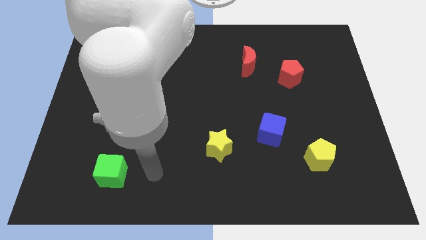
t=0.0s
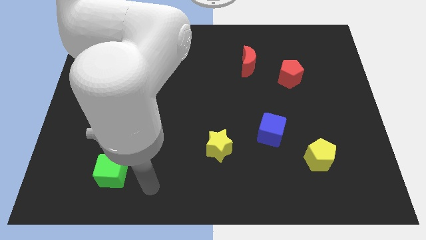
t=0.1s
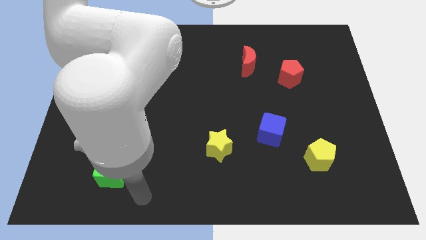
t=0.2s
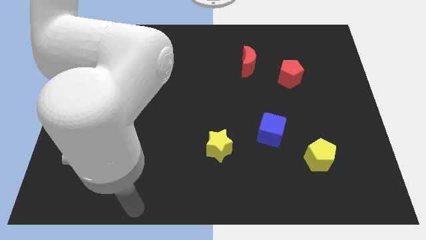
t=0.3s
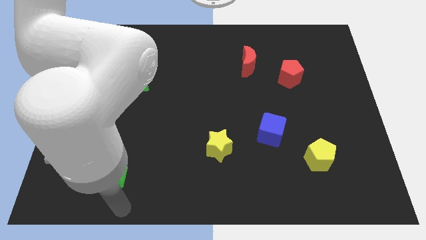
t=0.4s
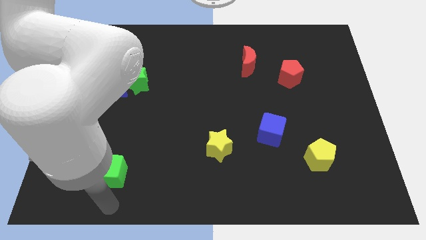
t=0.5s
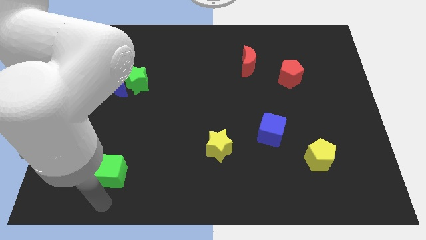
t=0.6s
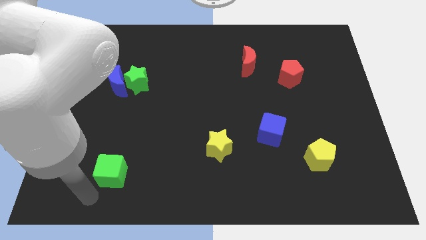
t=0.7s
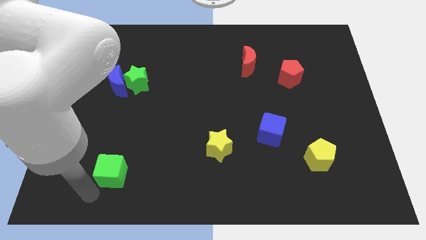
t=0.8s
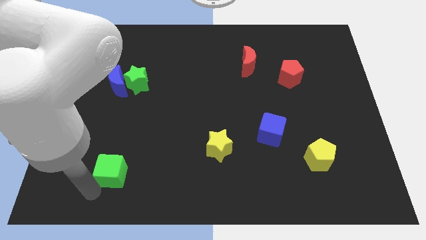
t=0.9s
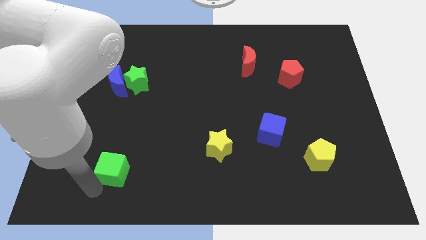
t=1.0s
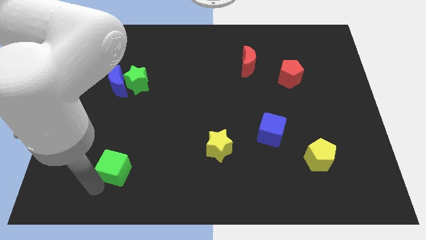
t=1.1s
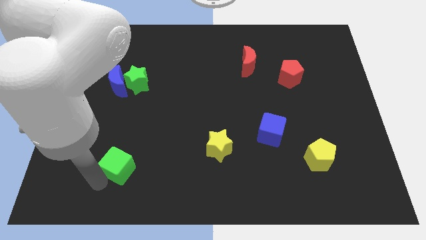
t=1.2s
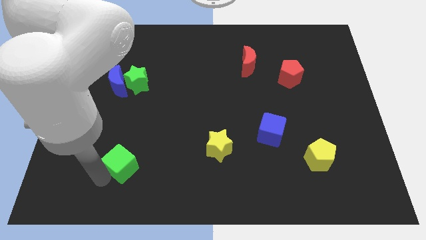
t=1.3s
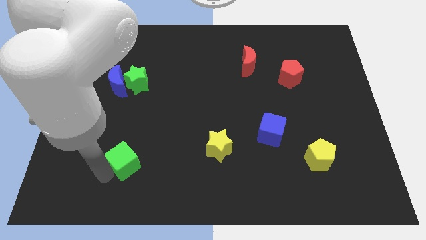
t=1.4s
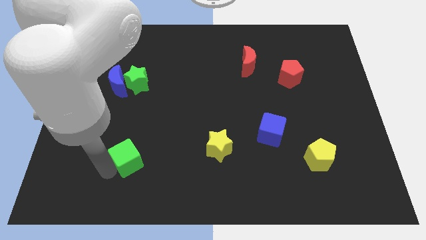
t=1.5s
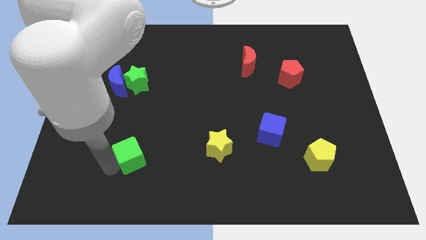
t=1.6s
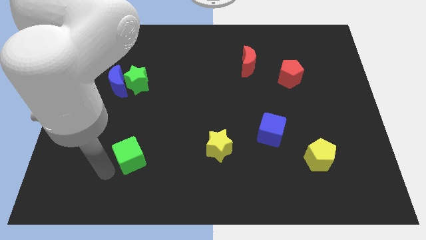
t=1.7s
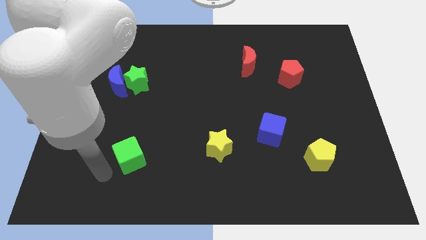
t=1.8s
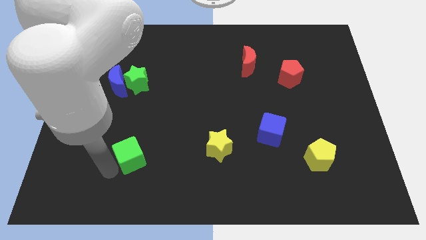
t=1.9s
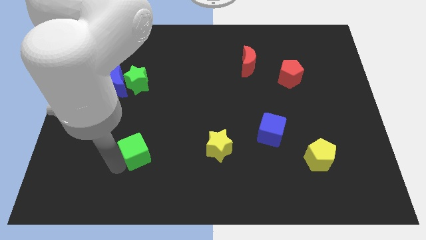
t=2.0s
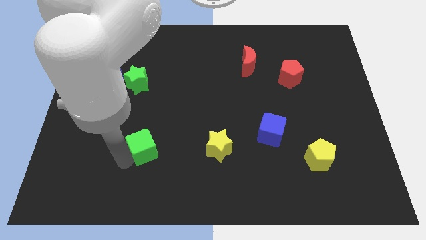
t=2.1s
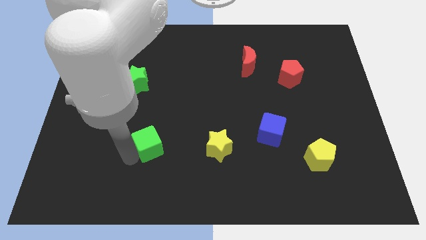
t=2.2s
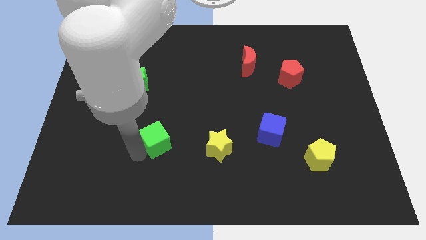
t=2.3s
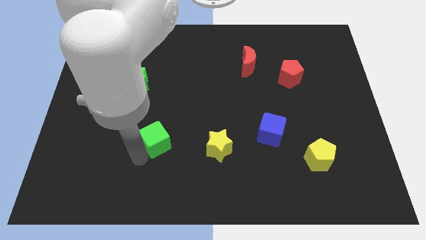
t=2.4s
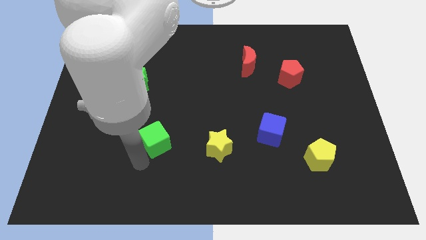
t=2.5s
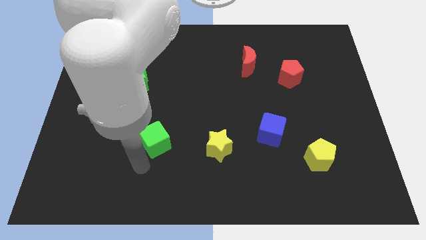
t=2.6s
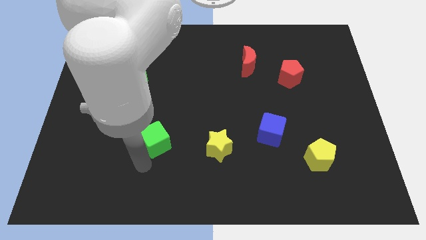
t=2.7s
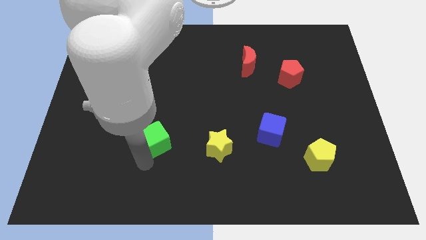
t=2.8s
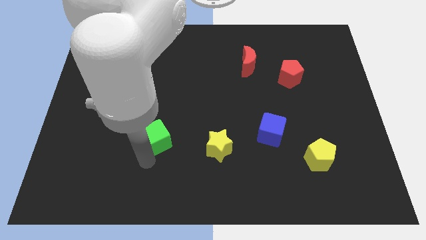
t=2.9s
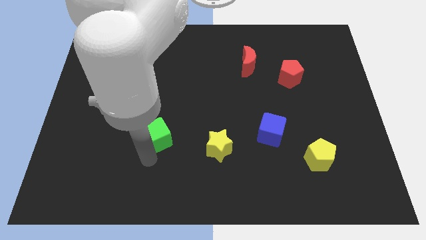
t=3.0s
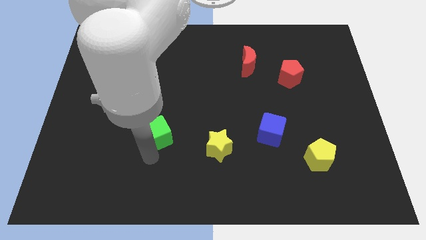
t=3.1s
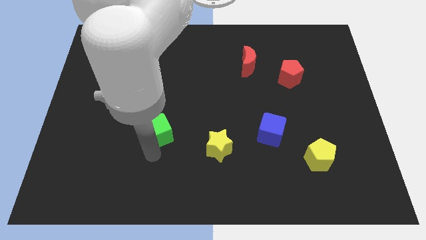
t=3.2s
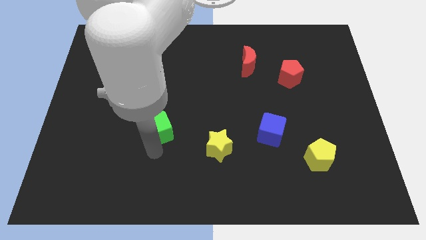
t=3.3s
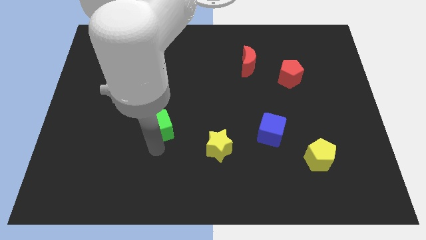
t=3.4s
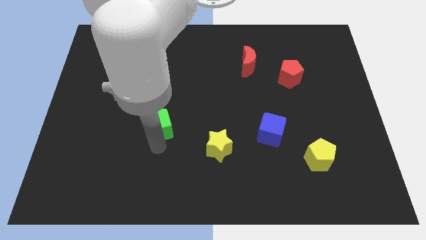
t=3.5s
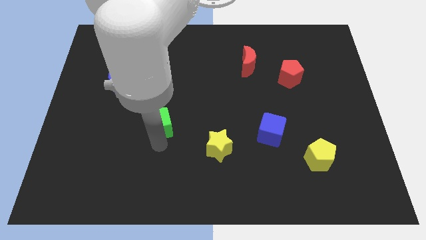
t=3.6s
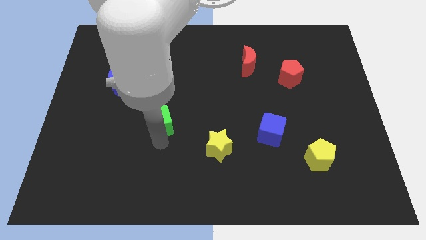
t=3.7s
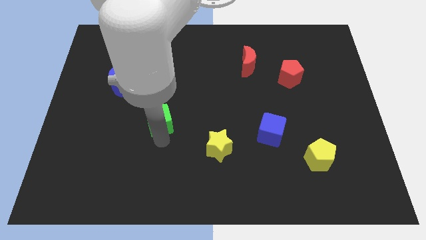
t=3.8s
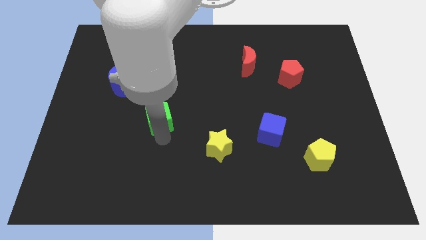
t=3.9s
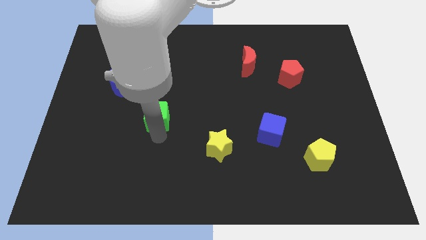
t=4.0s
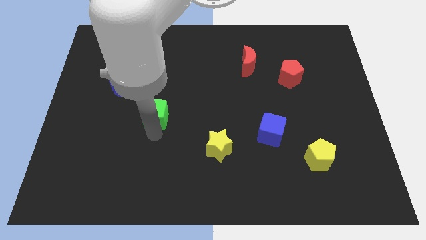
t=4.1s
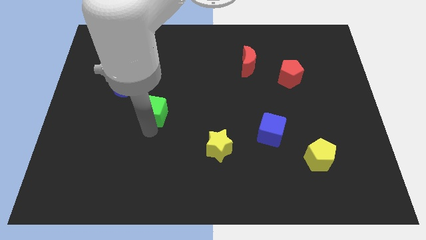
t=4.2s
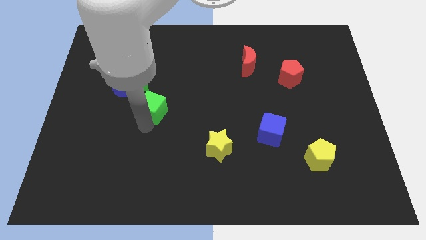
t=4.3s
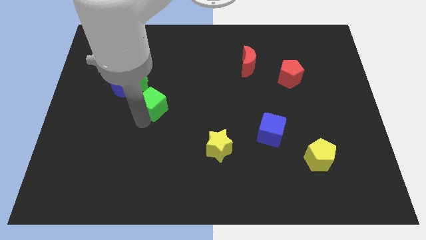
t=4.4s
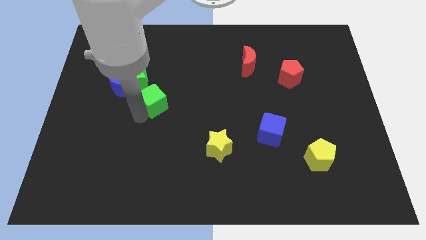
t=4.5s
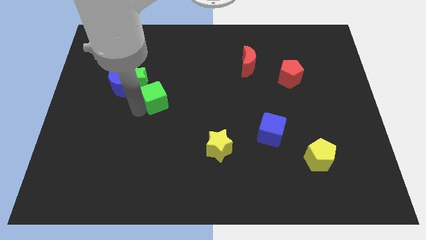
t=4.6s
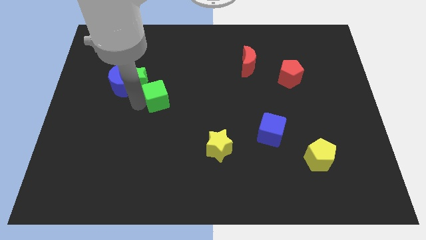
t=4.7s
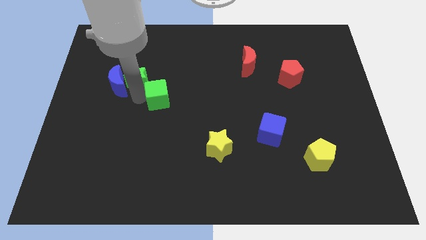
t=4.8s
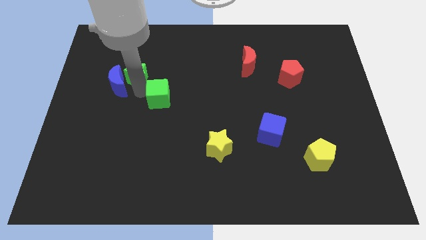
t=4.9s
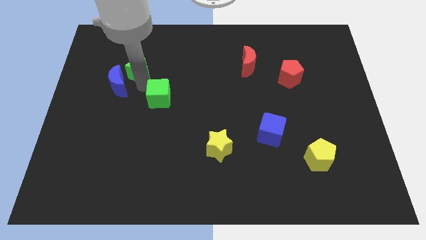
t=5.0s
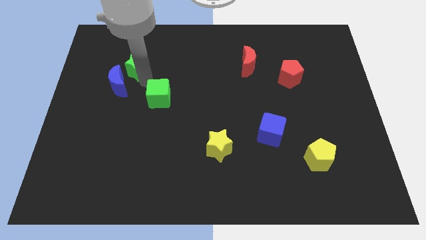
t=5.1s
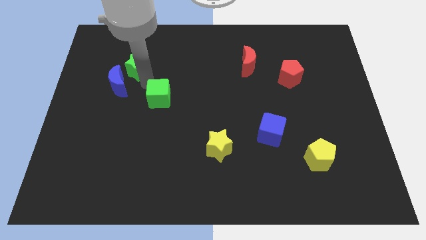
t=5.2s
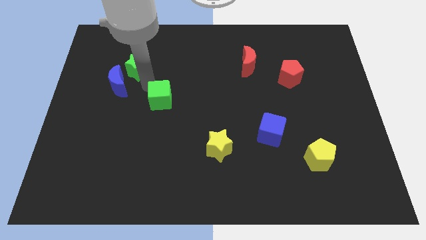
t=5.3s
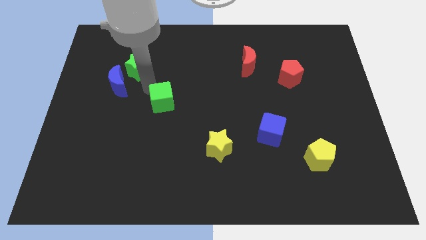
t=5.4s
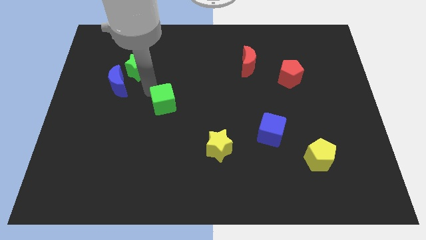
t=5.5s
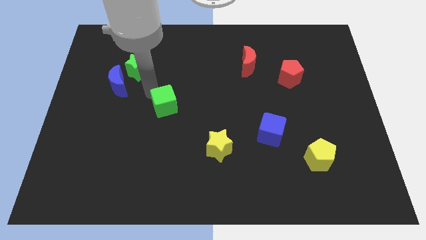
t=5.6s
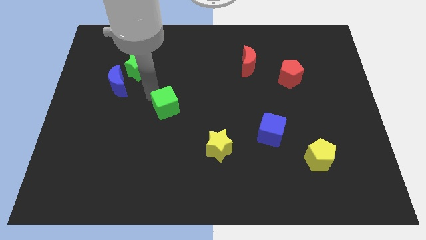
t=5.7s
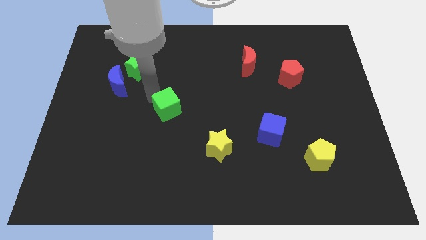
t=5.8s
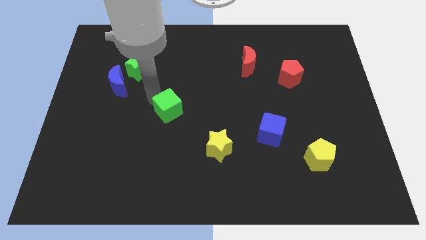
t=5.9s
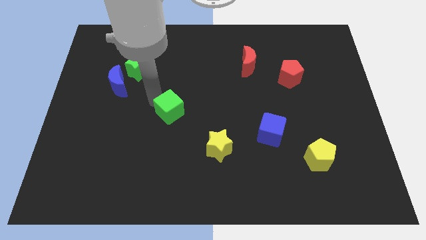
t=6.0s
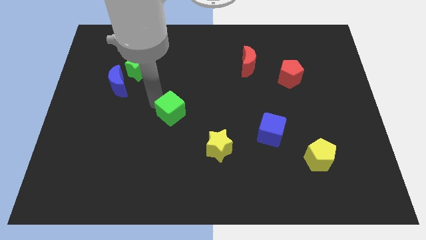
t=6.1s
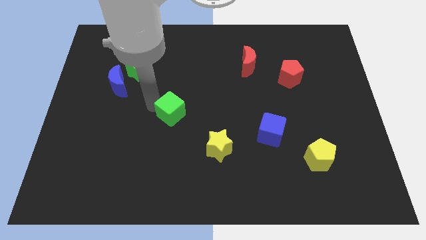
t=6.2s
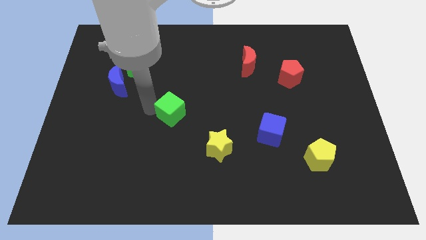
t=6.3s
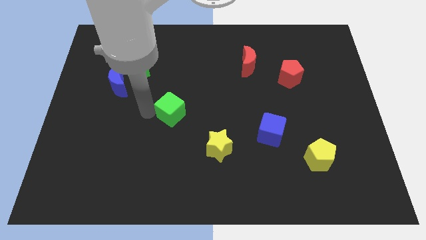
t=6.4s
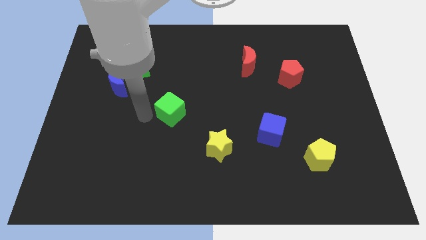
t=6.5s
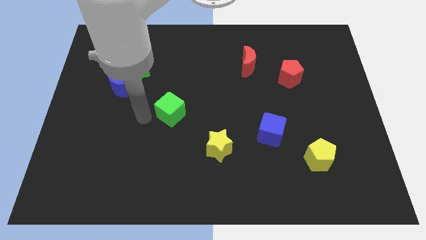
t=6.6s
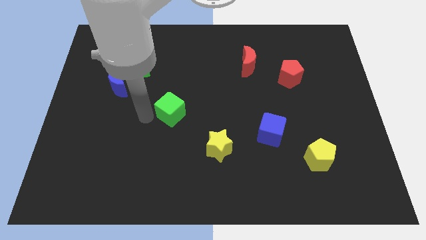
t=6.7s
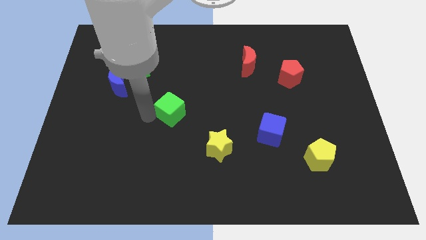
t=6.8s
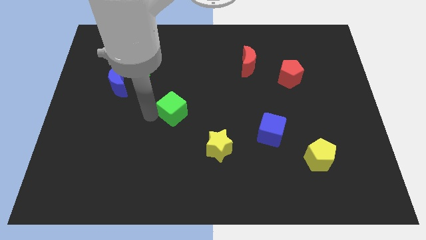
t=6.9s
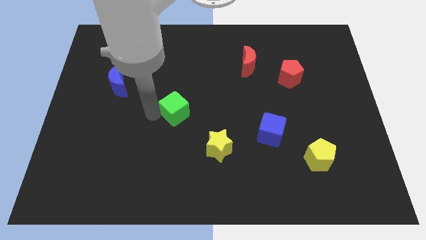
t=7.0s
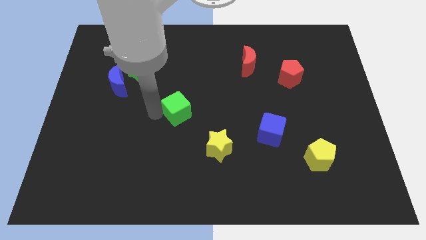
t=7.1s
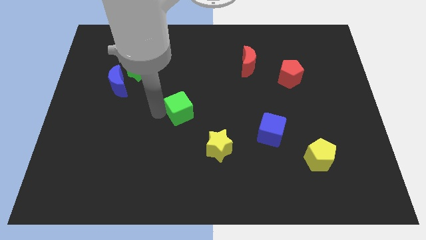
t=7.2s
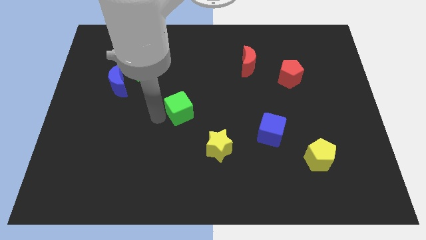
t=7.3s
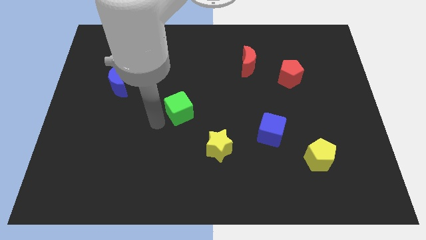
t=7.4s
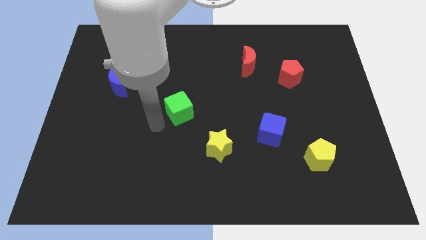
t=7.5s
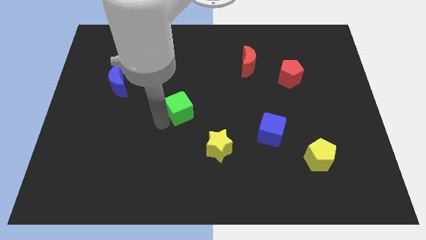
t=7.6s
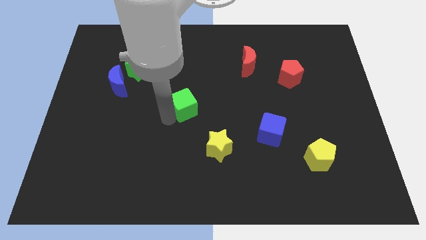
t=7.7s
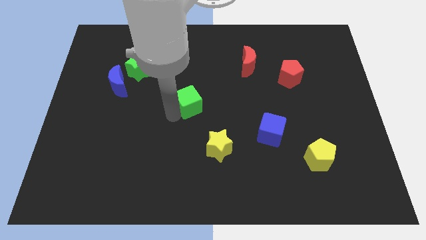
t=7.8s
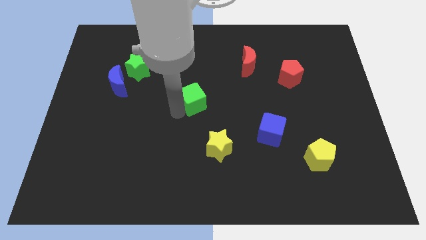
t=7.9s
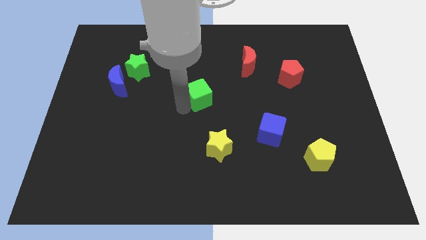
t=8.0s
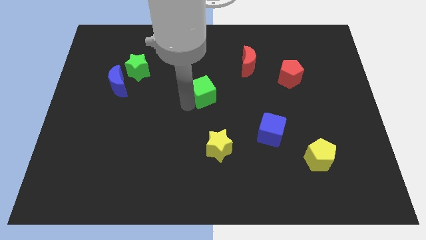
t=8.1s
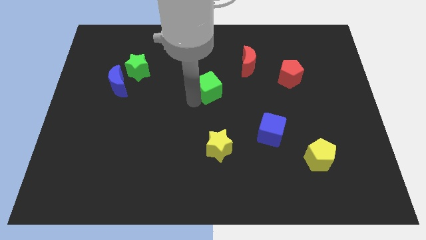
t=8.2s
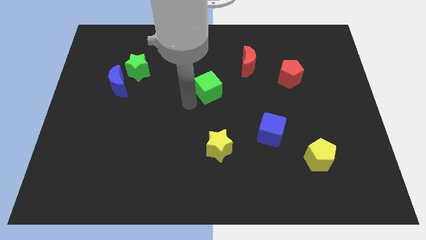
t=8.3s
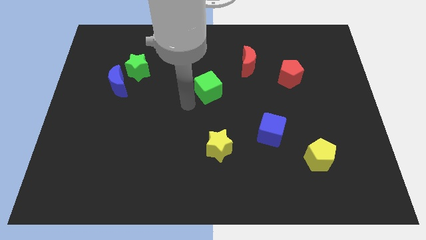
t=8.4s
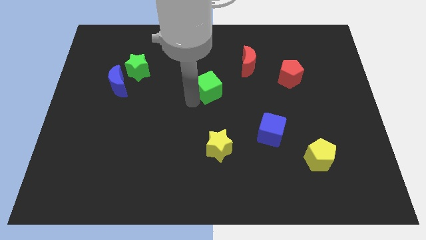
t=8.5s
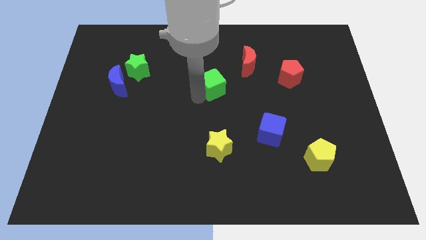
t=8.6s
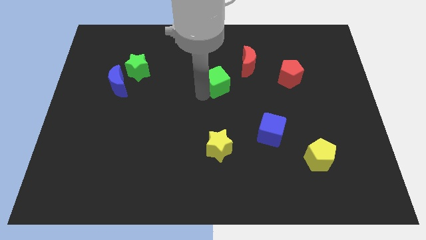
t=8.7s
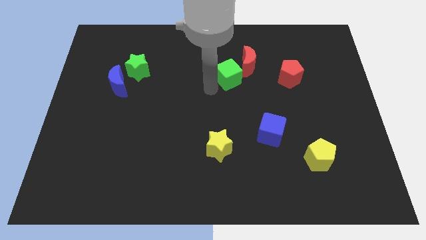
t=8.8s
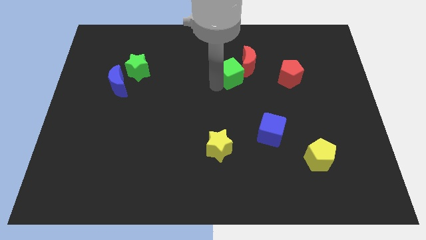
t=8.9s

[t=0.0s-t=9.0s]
push the green cube to the red moon
